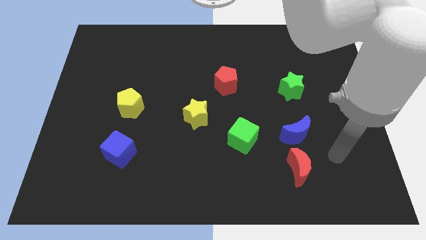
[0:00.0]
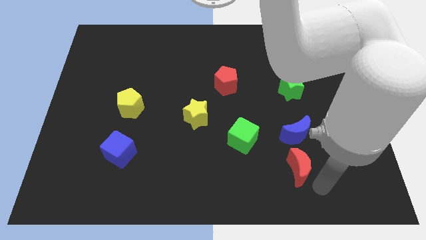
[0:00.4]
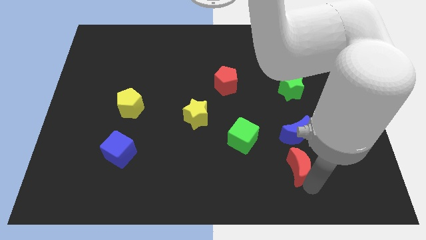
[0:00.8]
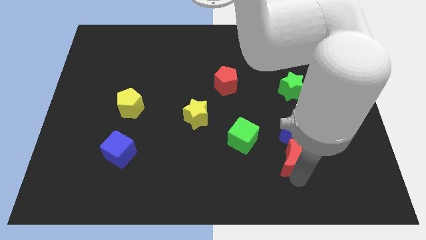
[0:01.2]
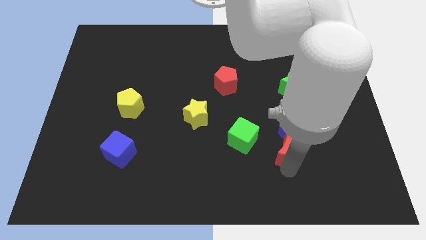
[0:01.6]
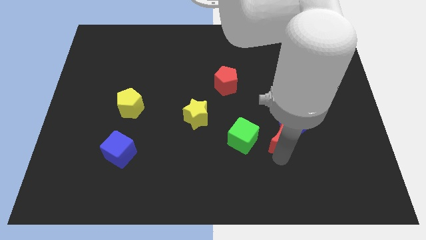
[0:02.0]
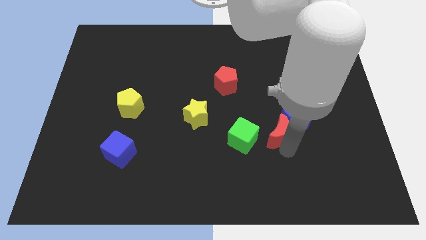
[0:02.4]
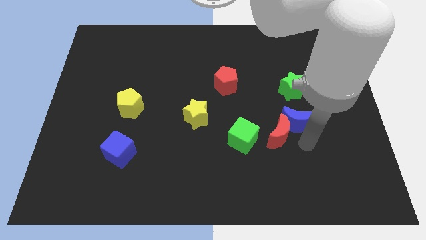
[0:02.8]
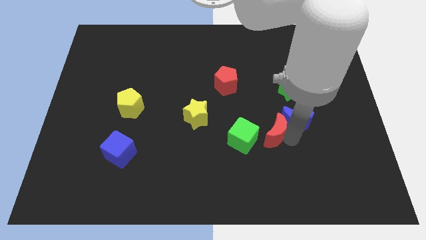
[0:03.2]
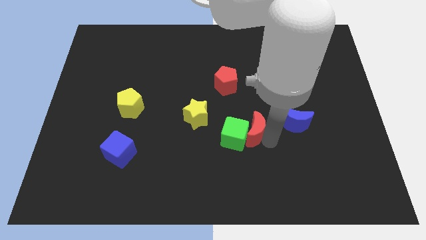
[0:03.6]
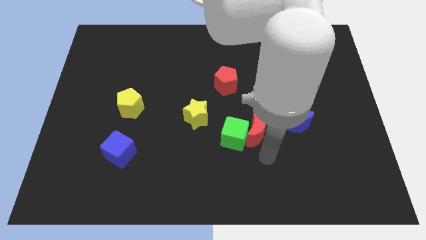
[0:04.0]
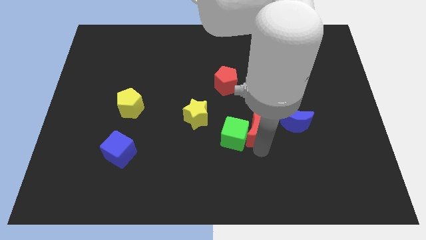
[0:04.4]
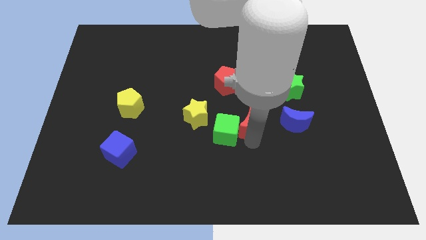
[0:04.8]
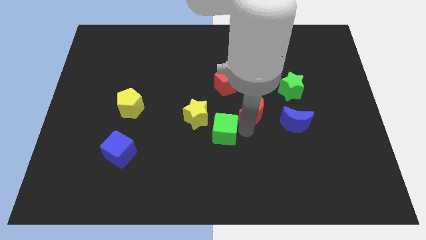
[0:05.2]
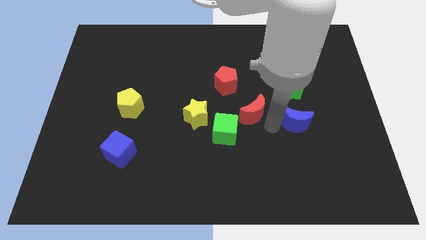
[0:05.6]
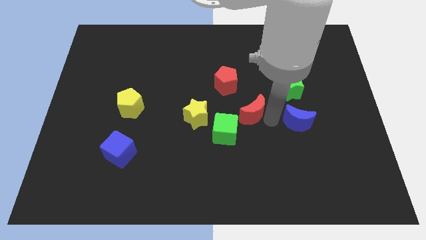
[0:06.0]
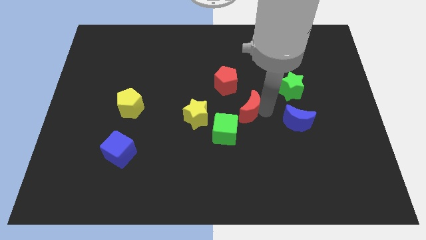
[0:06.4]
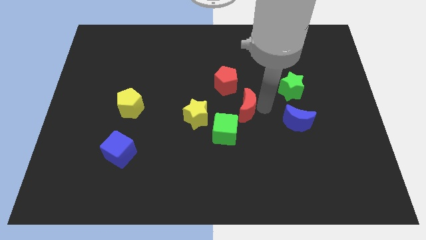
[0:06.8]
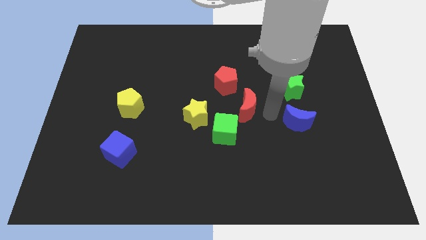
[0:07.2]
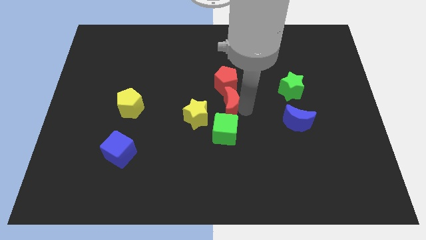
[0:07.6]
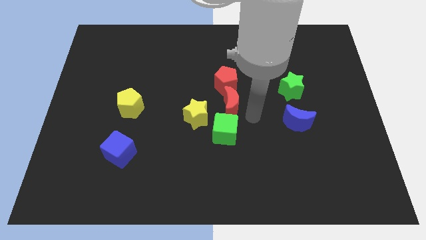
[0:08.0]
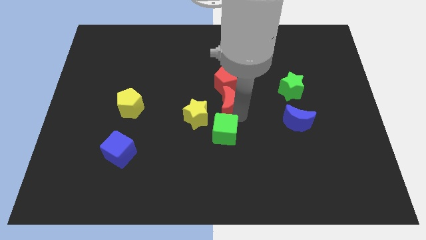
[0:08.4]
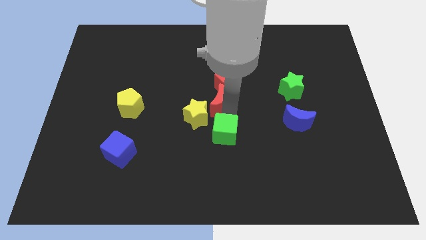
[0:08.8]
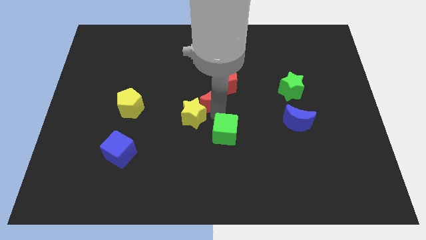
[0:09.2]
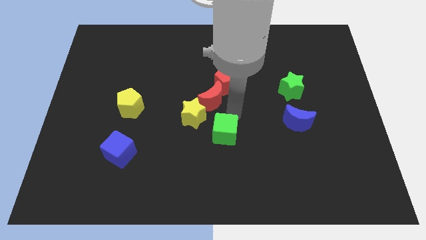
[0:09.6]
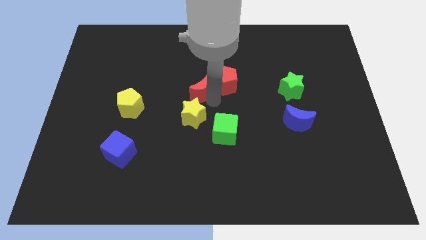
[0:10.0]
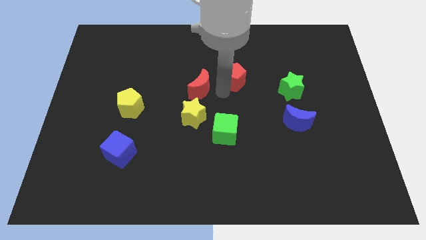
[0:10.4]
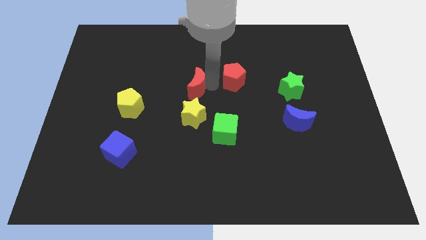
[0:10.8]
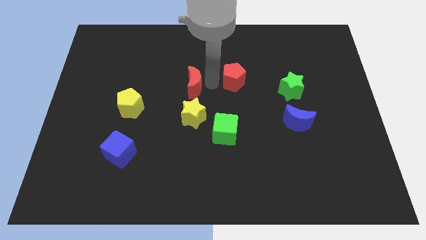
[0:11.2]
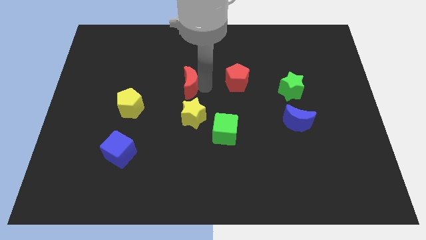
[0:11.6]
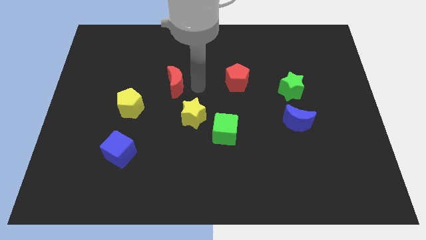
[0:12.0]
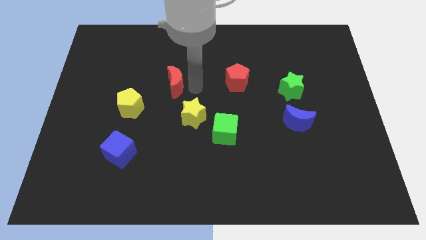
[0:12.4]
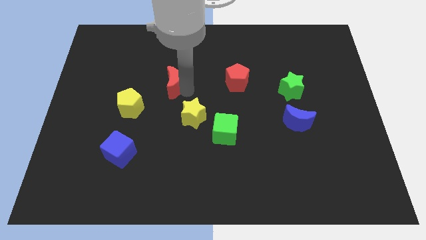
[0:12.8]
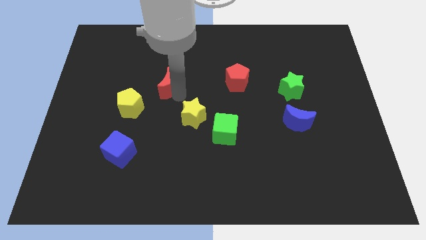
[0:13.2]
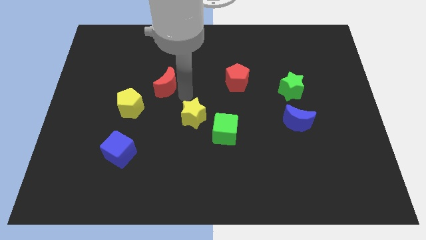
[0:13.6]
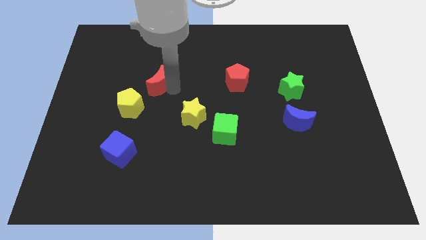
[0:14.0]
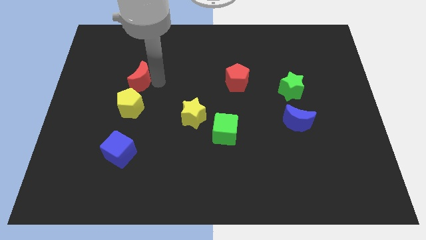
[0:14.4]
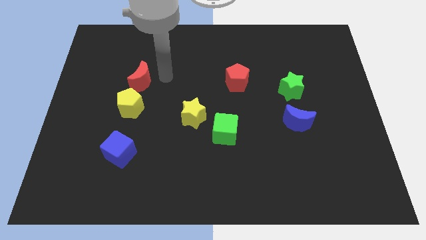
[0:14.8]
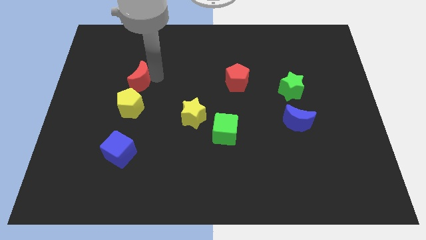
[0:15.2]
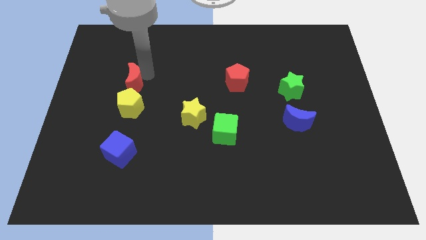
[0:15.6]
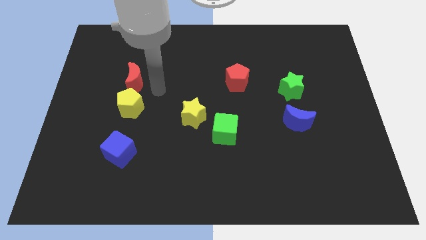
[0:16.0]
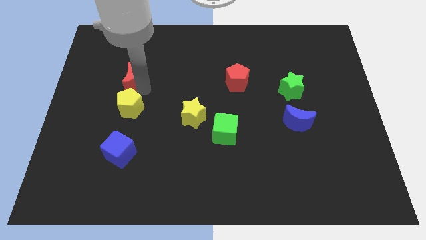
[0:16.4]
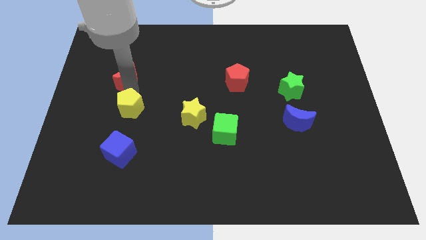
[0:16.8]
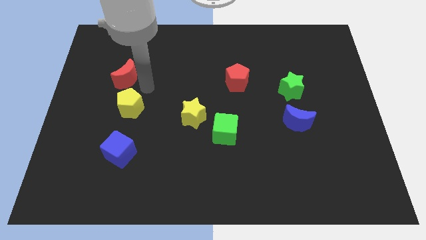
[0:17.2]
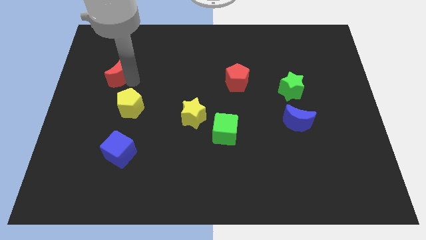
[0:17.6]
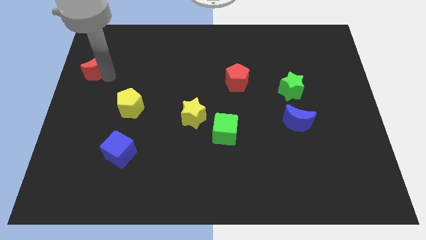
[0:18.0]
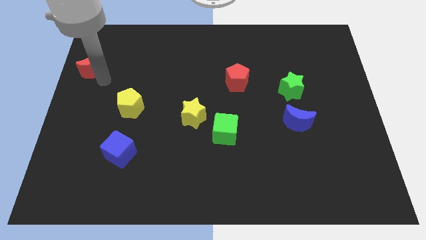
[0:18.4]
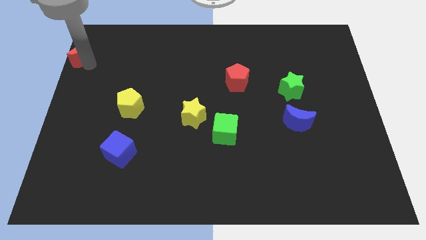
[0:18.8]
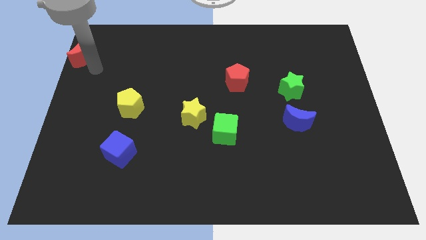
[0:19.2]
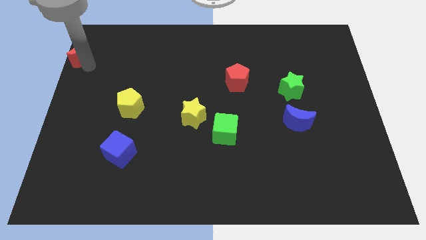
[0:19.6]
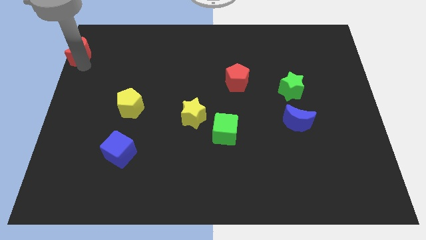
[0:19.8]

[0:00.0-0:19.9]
move the red moon to the upper left corner

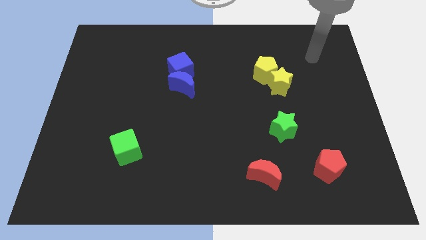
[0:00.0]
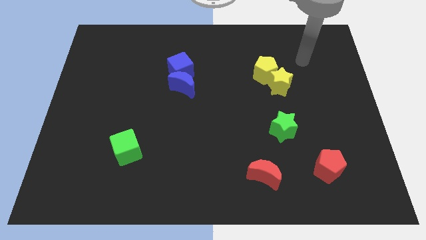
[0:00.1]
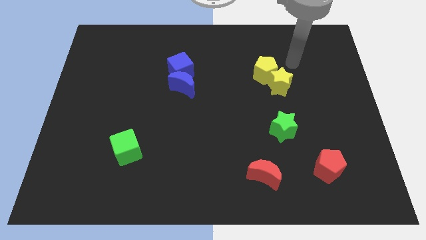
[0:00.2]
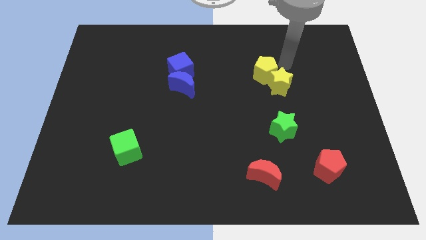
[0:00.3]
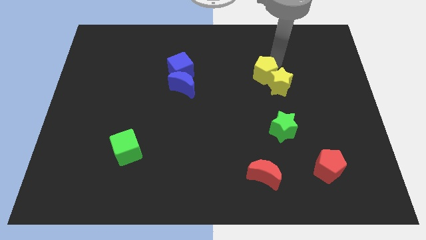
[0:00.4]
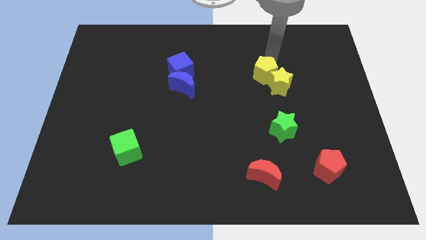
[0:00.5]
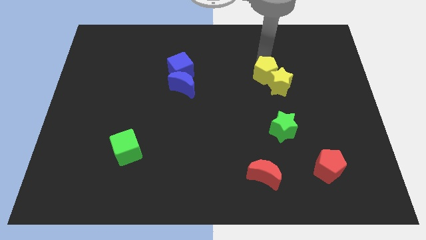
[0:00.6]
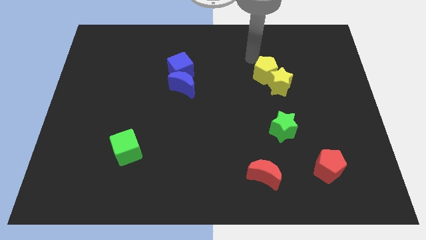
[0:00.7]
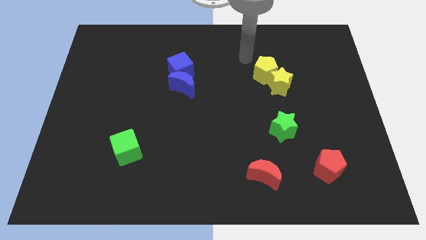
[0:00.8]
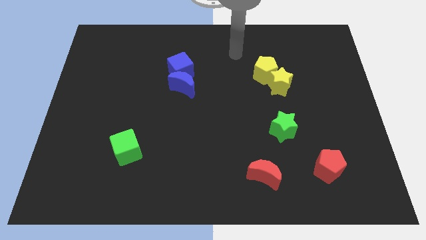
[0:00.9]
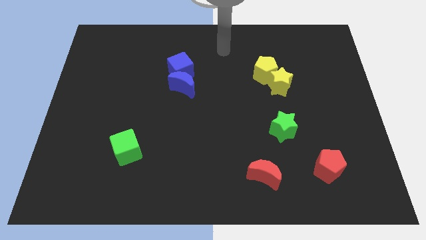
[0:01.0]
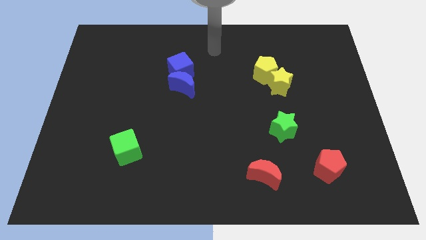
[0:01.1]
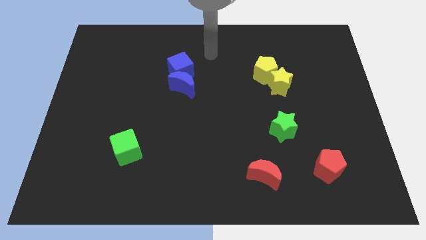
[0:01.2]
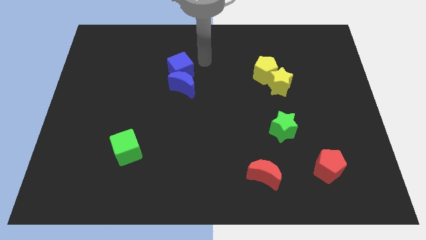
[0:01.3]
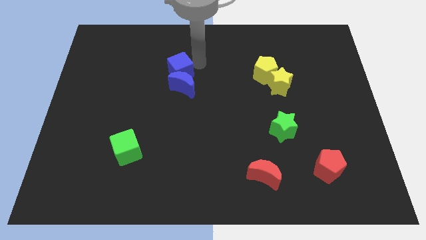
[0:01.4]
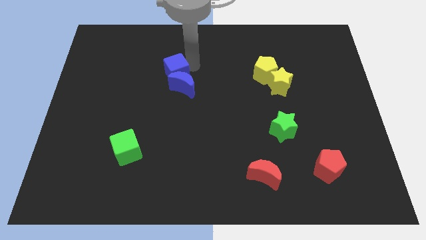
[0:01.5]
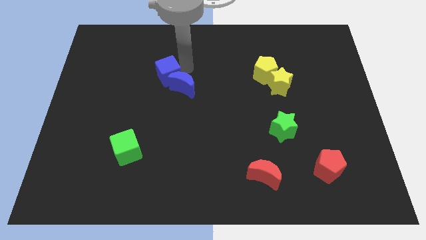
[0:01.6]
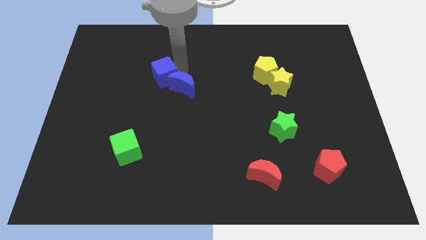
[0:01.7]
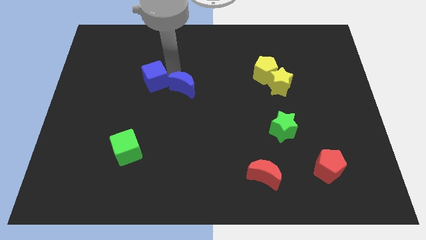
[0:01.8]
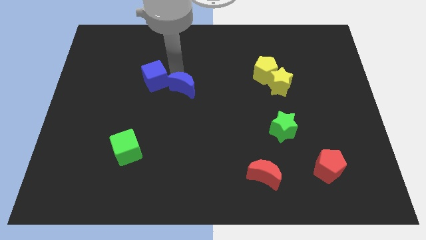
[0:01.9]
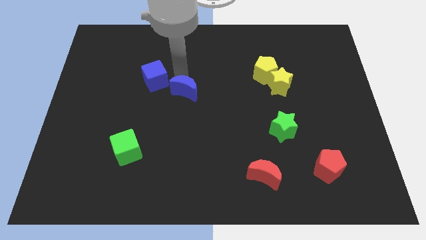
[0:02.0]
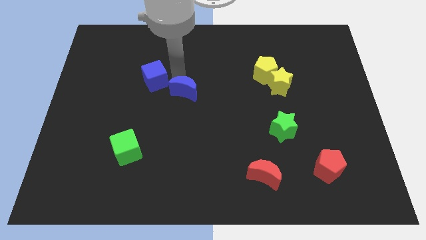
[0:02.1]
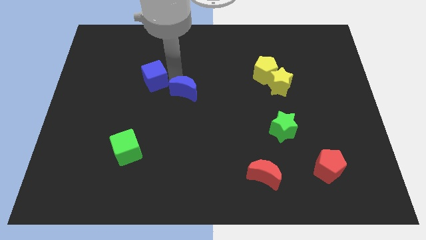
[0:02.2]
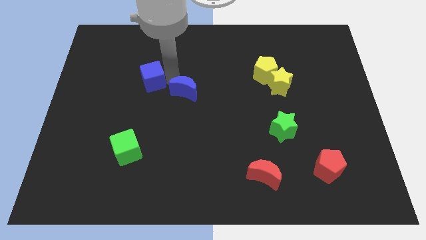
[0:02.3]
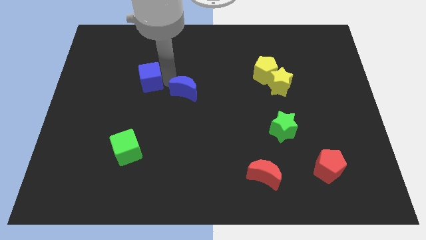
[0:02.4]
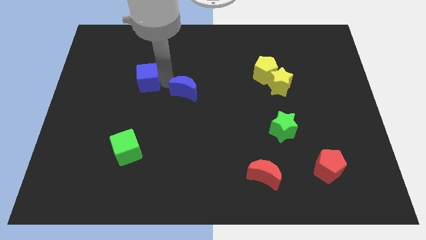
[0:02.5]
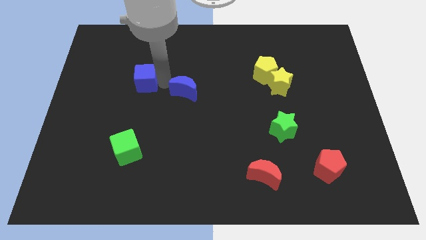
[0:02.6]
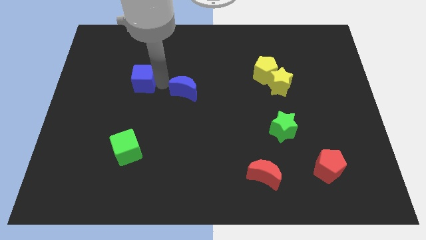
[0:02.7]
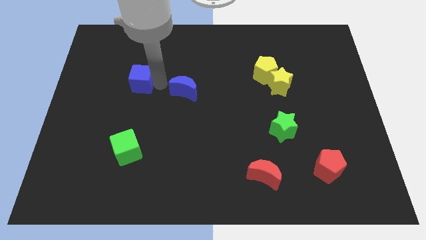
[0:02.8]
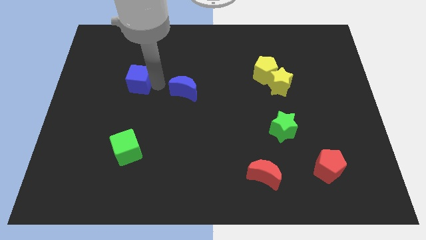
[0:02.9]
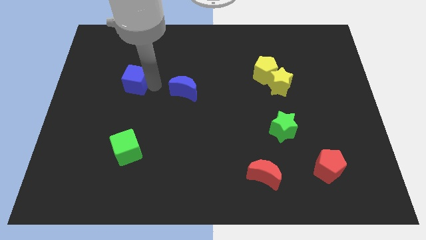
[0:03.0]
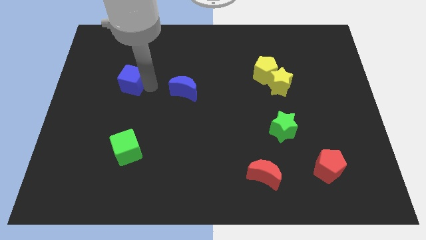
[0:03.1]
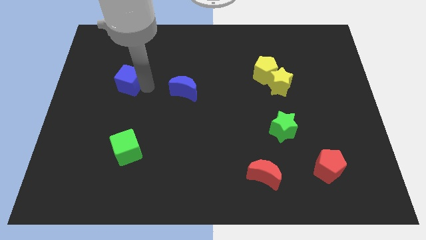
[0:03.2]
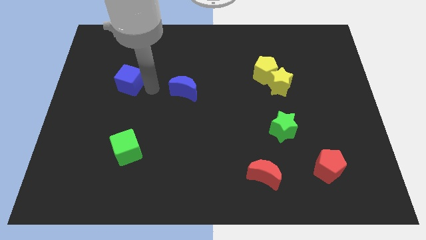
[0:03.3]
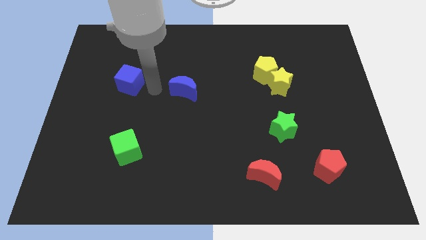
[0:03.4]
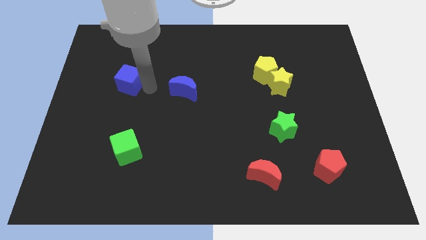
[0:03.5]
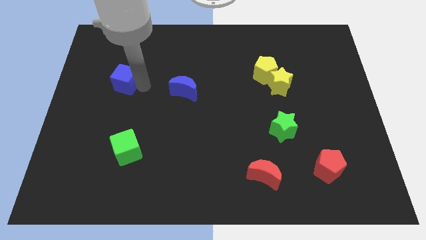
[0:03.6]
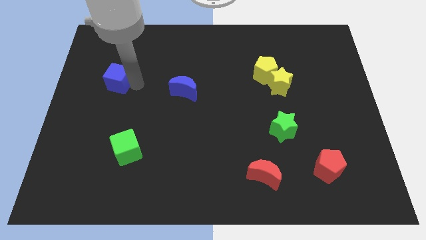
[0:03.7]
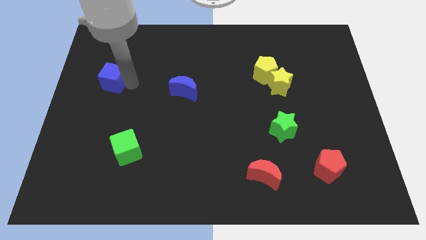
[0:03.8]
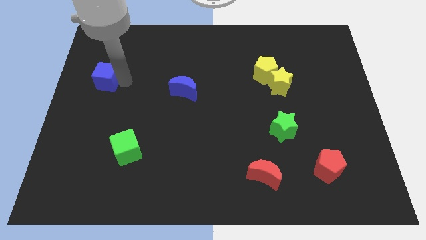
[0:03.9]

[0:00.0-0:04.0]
push the blue cube to the center left
